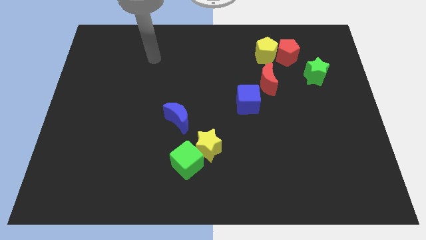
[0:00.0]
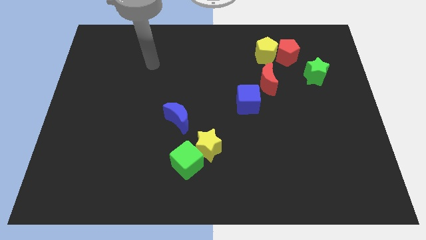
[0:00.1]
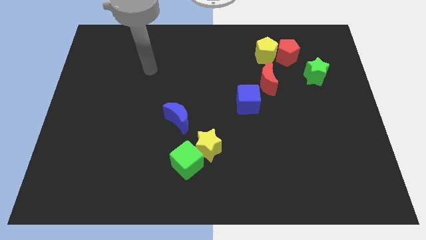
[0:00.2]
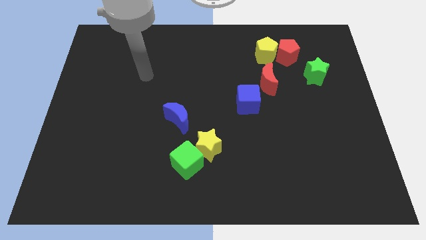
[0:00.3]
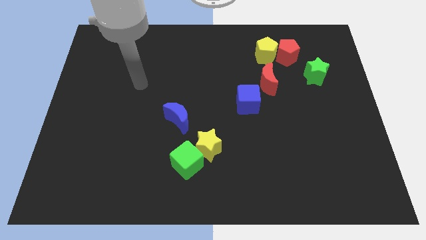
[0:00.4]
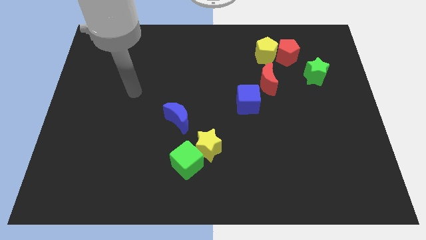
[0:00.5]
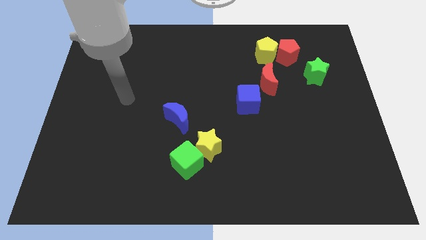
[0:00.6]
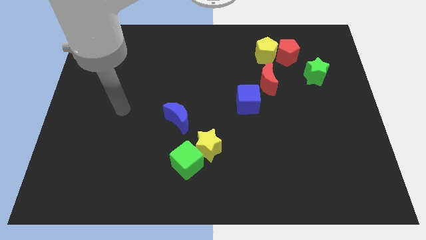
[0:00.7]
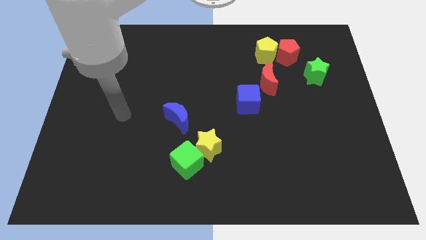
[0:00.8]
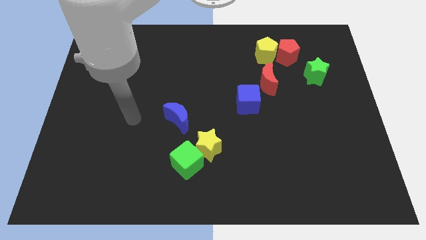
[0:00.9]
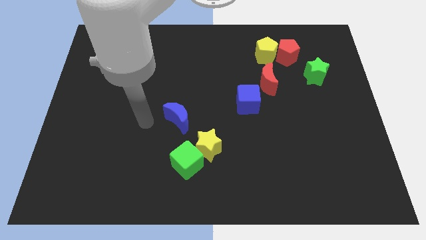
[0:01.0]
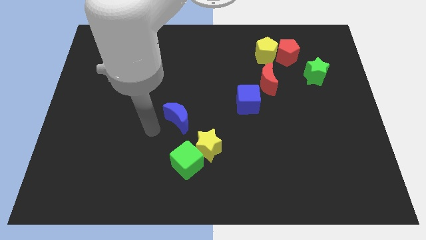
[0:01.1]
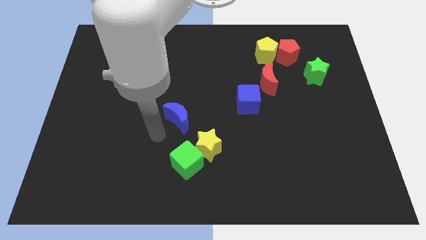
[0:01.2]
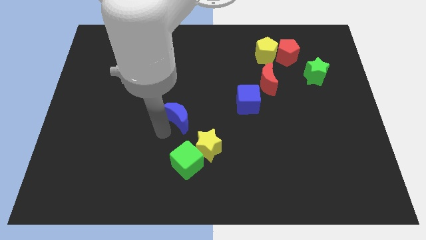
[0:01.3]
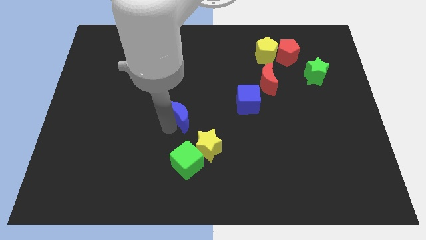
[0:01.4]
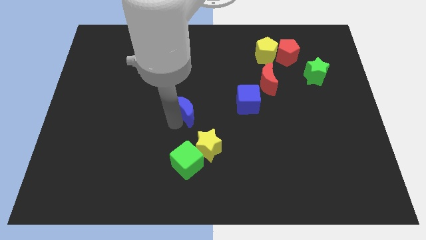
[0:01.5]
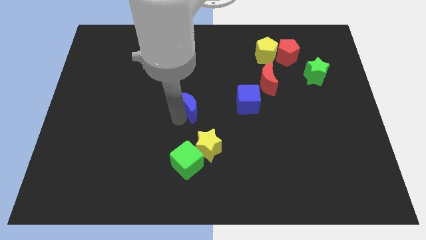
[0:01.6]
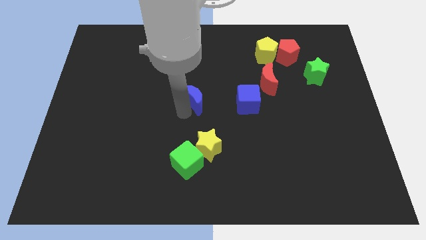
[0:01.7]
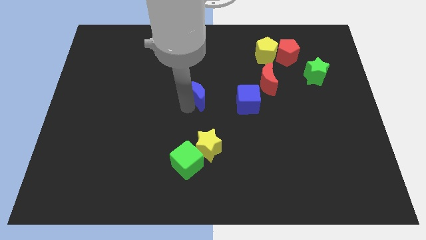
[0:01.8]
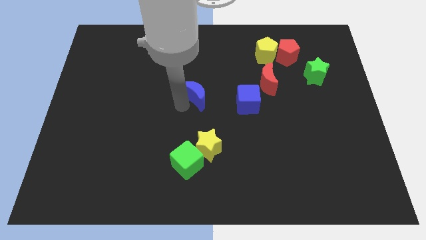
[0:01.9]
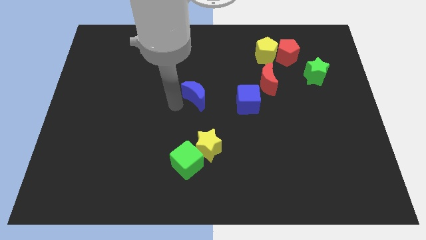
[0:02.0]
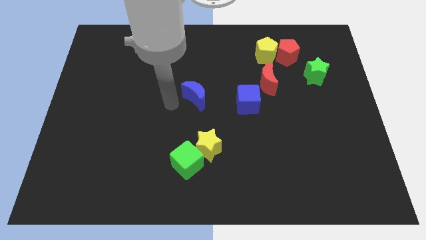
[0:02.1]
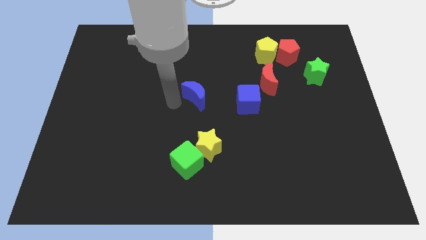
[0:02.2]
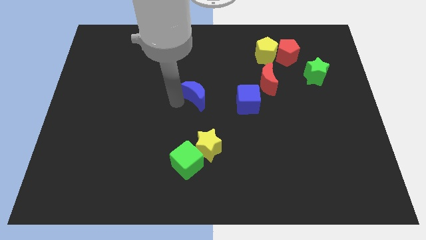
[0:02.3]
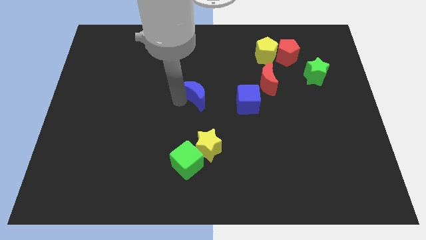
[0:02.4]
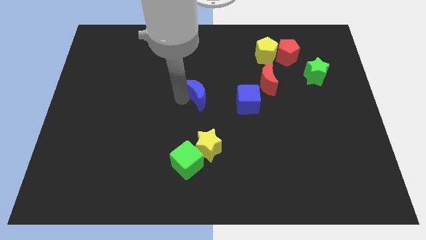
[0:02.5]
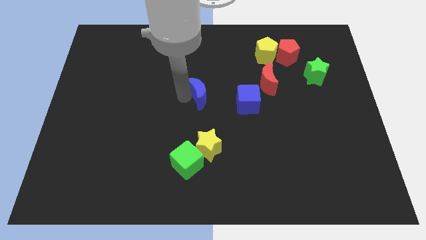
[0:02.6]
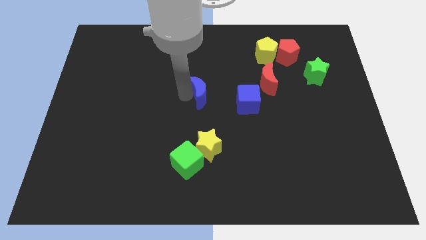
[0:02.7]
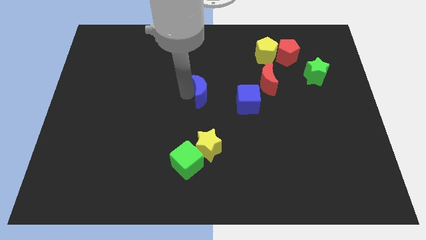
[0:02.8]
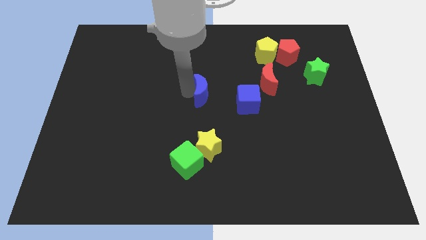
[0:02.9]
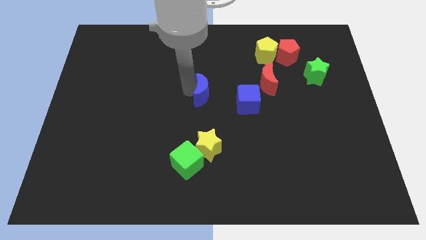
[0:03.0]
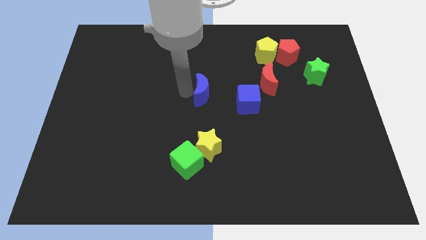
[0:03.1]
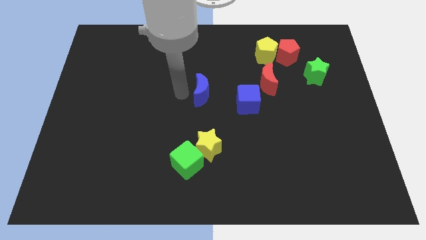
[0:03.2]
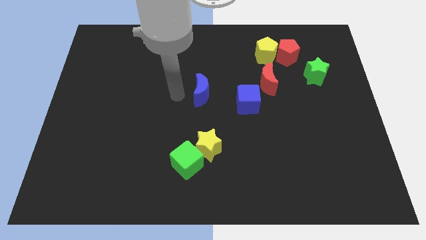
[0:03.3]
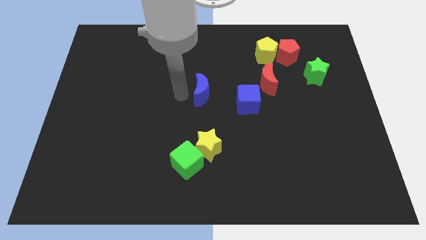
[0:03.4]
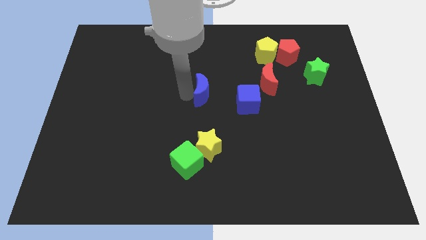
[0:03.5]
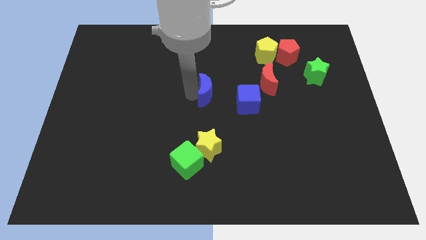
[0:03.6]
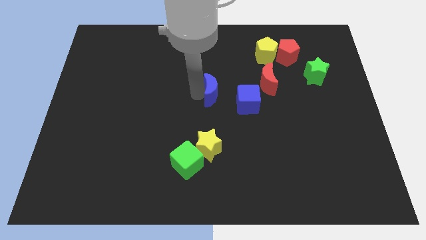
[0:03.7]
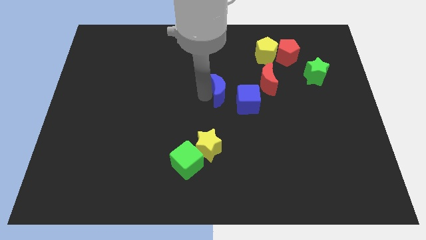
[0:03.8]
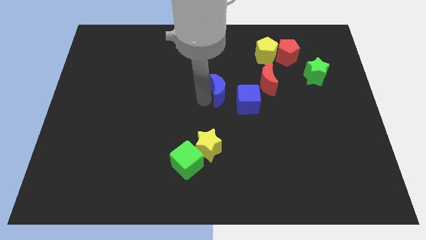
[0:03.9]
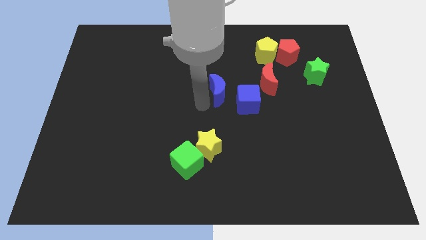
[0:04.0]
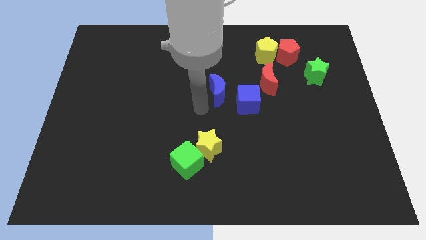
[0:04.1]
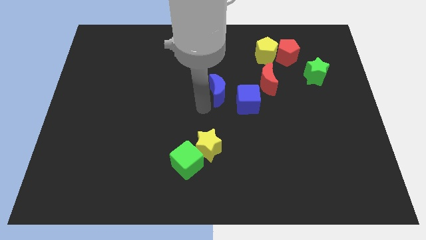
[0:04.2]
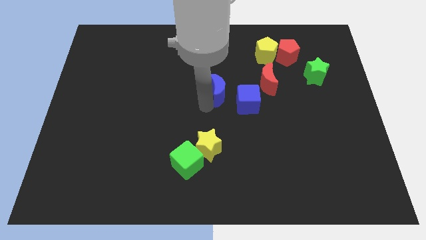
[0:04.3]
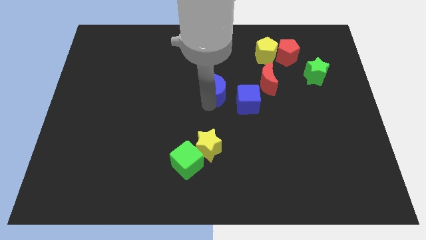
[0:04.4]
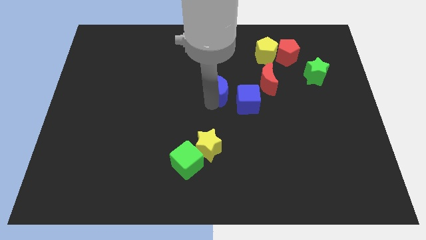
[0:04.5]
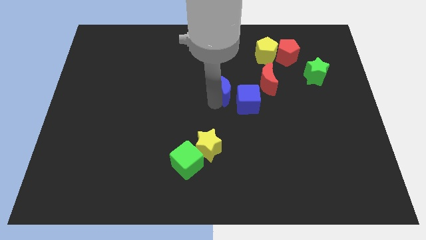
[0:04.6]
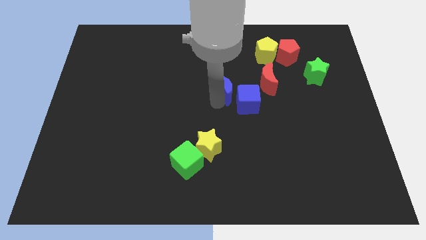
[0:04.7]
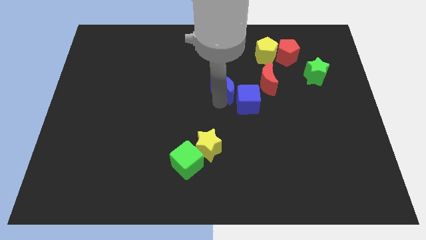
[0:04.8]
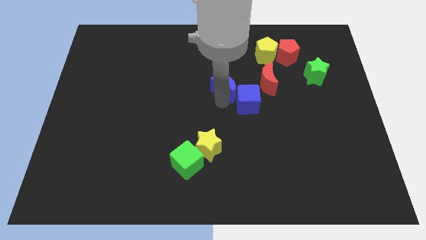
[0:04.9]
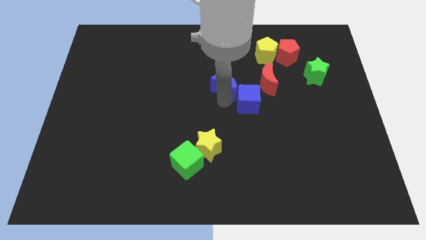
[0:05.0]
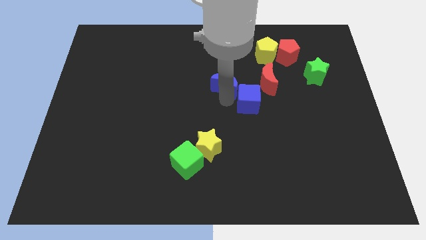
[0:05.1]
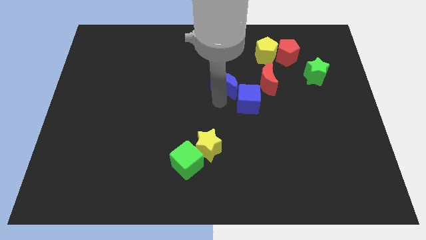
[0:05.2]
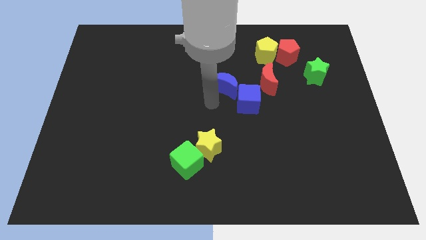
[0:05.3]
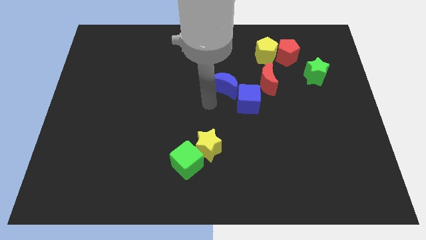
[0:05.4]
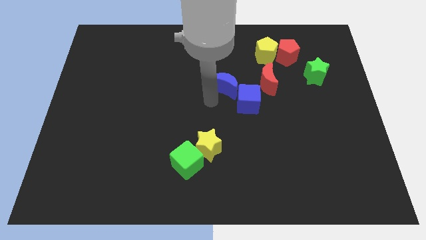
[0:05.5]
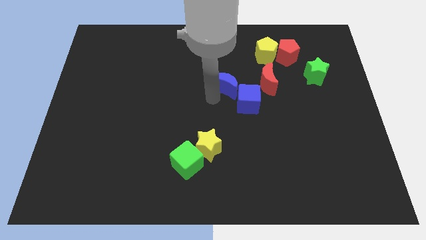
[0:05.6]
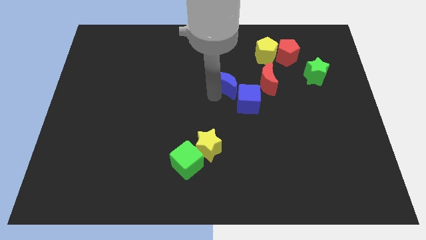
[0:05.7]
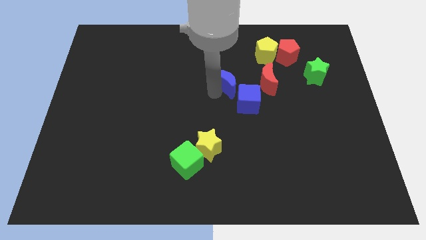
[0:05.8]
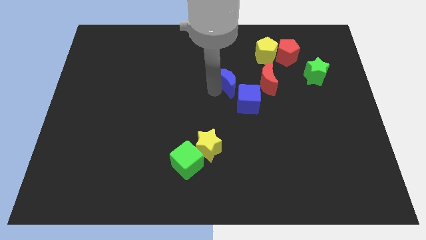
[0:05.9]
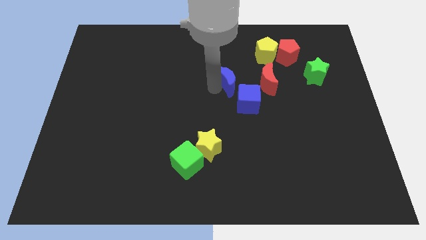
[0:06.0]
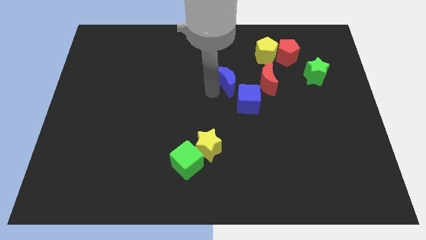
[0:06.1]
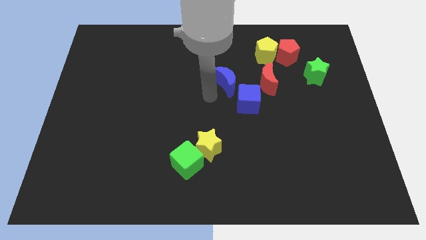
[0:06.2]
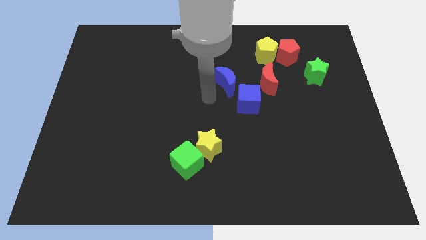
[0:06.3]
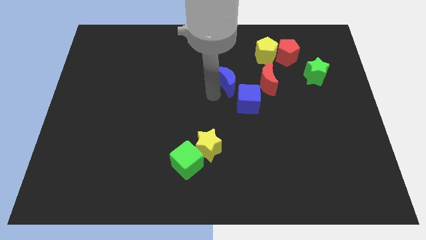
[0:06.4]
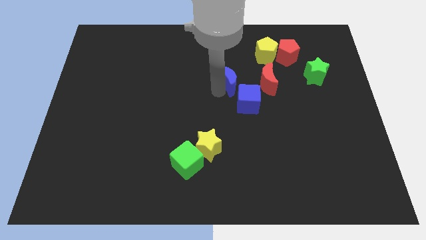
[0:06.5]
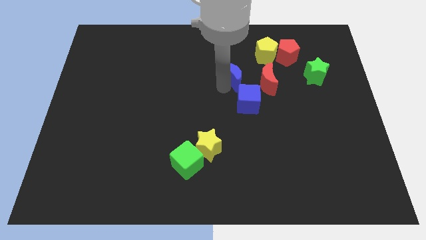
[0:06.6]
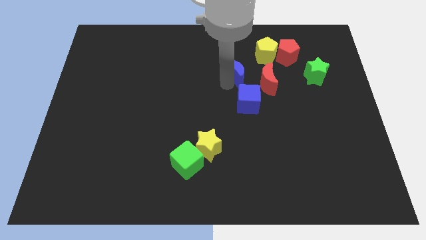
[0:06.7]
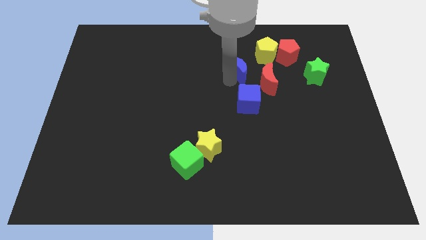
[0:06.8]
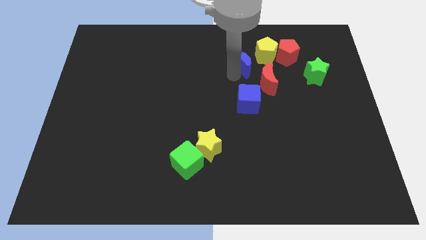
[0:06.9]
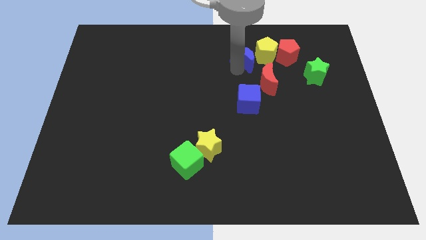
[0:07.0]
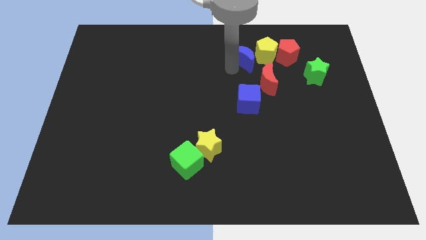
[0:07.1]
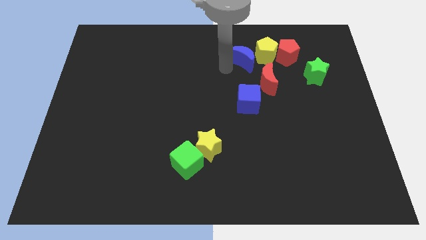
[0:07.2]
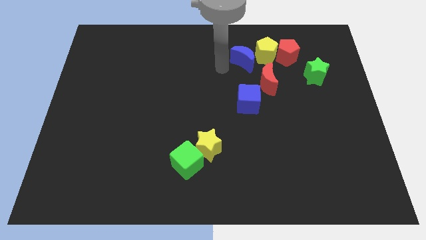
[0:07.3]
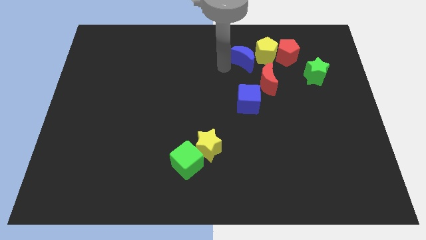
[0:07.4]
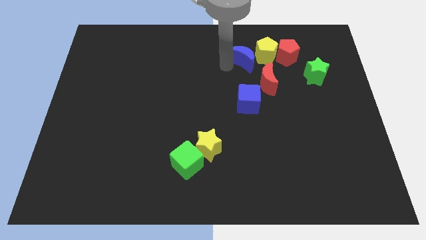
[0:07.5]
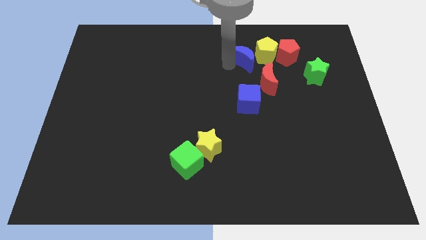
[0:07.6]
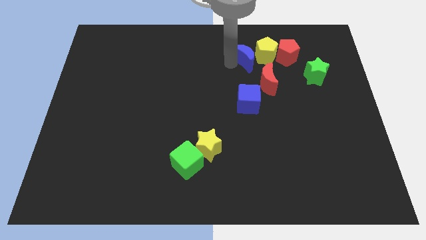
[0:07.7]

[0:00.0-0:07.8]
push the blue moon to the yellow pentagon
